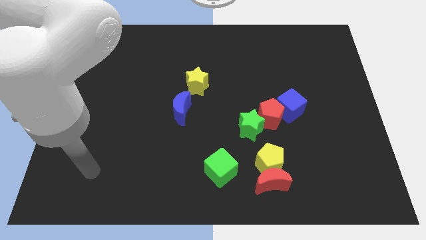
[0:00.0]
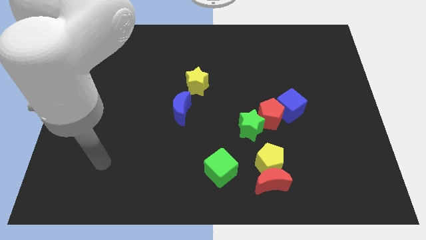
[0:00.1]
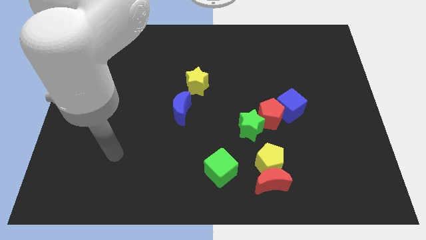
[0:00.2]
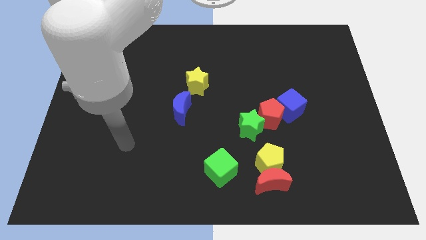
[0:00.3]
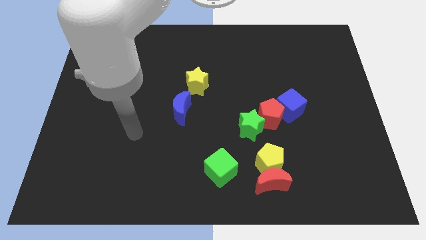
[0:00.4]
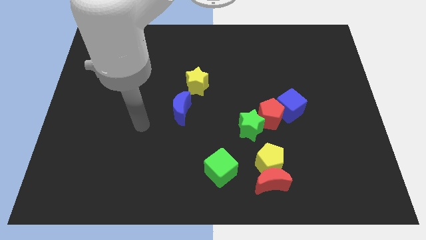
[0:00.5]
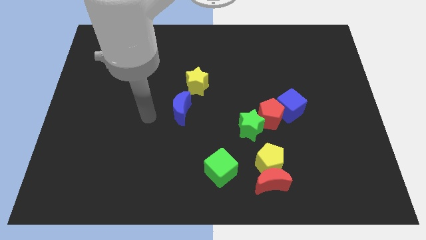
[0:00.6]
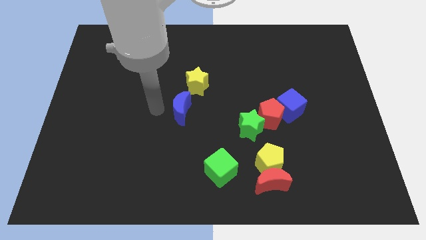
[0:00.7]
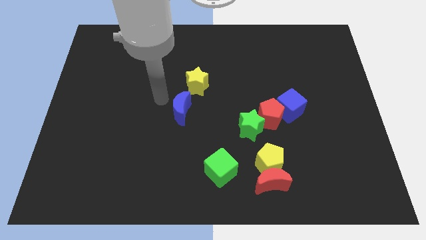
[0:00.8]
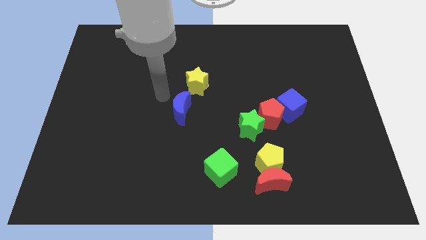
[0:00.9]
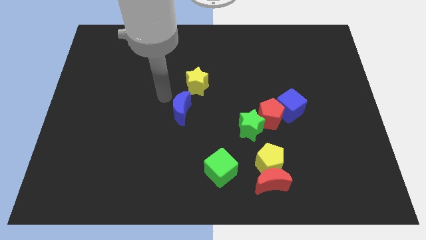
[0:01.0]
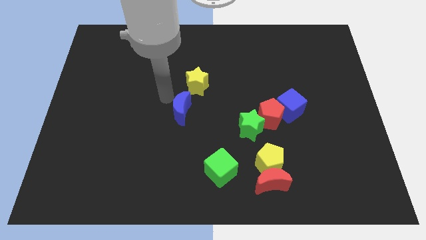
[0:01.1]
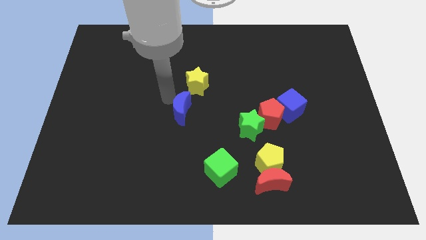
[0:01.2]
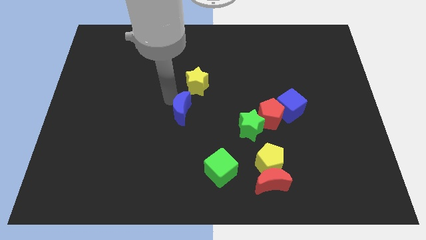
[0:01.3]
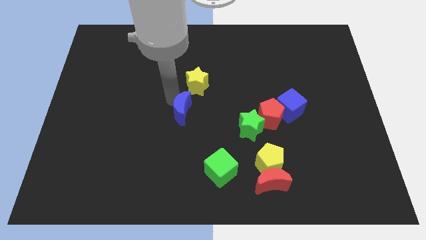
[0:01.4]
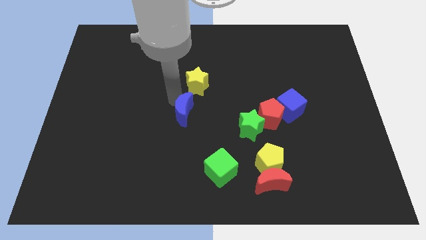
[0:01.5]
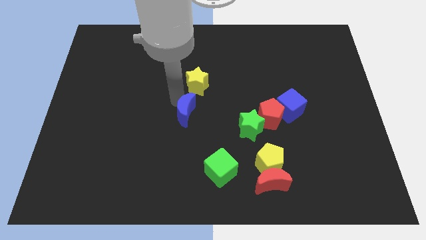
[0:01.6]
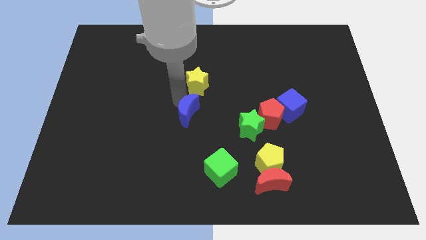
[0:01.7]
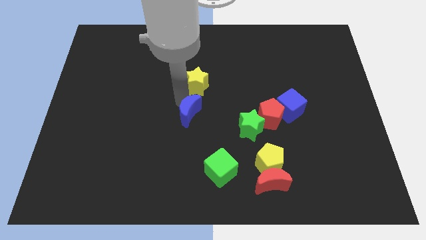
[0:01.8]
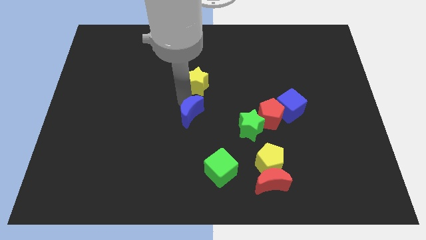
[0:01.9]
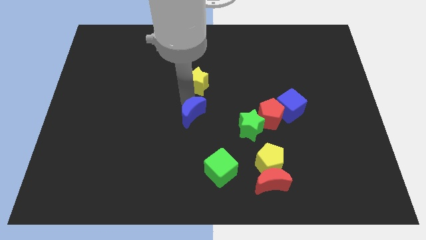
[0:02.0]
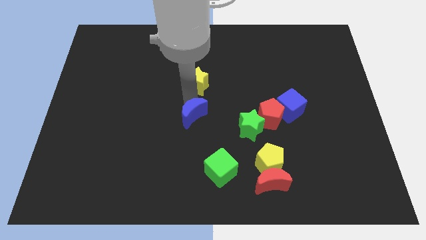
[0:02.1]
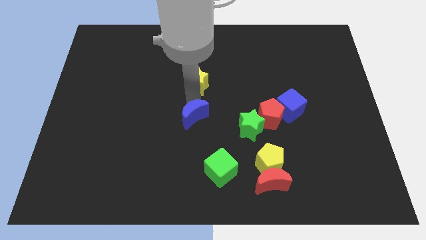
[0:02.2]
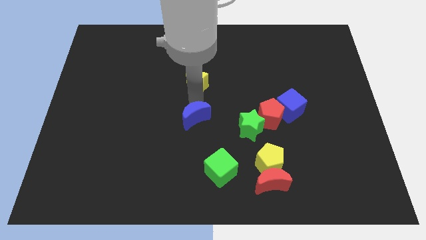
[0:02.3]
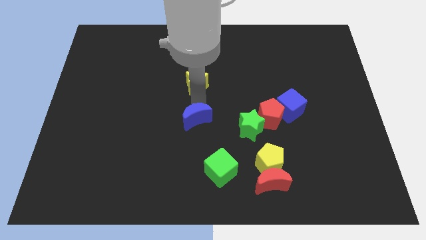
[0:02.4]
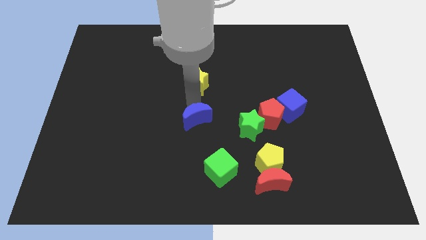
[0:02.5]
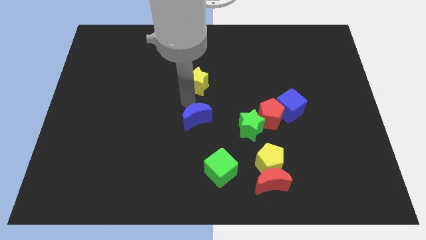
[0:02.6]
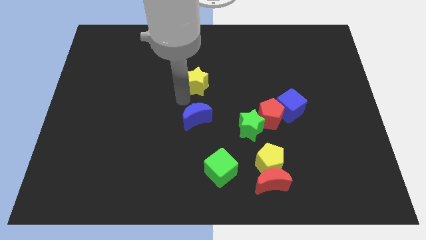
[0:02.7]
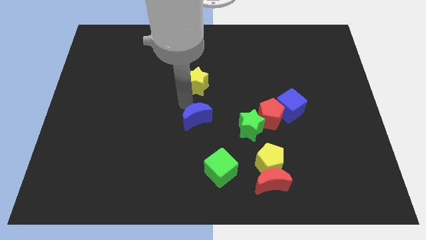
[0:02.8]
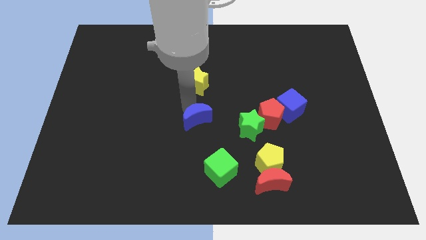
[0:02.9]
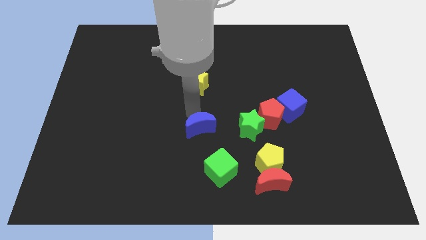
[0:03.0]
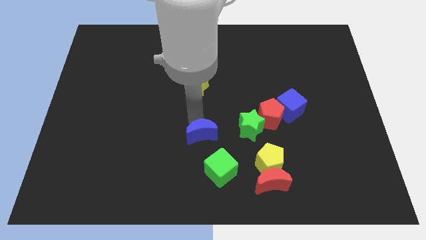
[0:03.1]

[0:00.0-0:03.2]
push the blue moon a little diagonally downwards and right

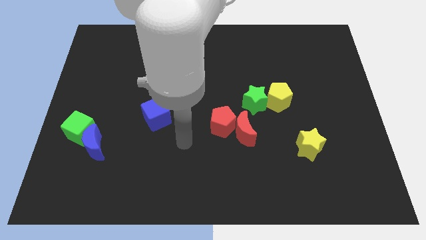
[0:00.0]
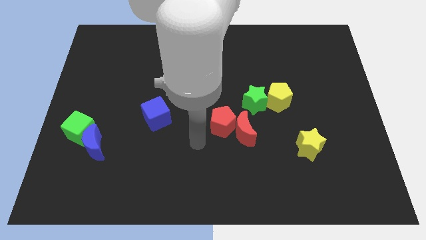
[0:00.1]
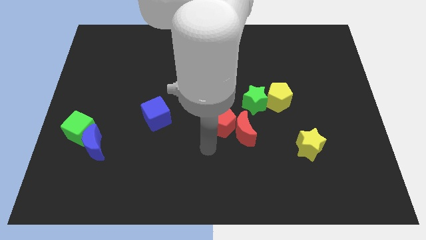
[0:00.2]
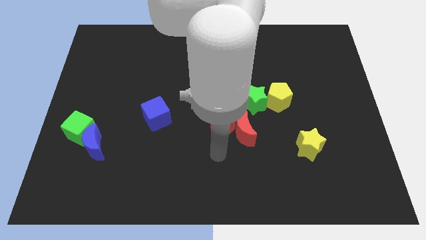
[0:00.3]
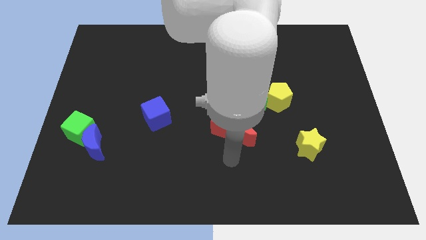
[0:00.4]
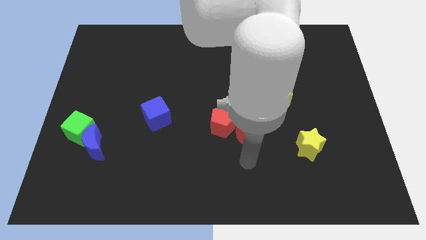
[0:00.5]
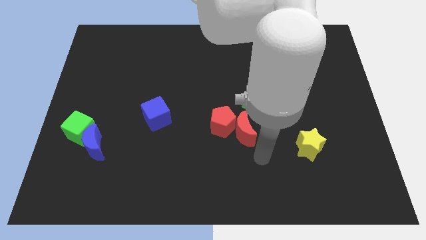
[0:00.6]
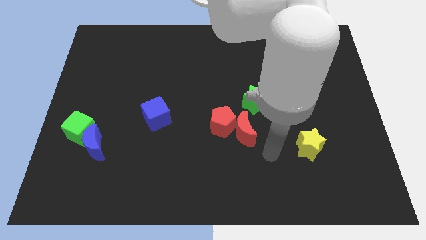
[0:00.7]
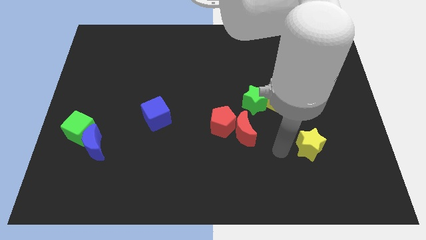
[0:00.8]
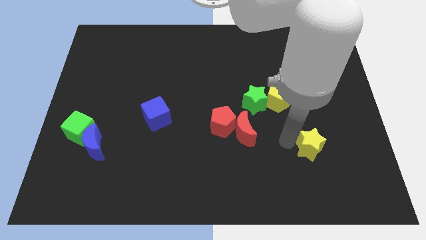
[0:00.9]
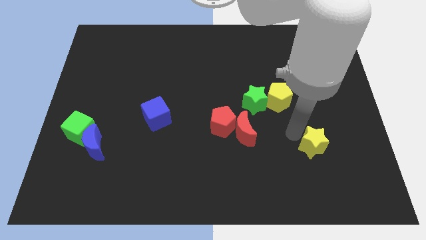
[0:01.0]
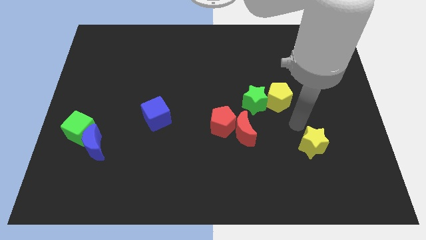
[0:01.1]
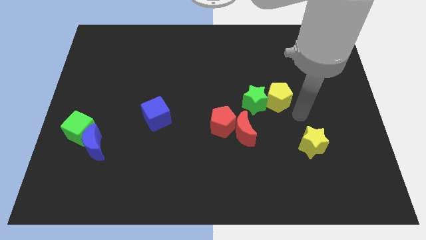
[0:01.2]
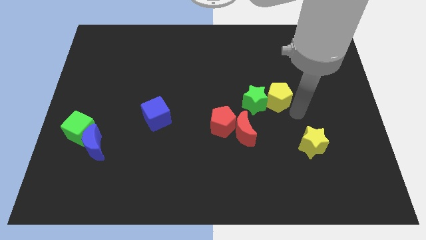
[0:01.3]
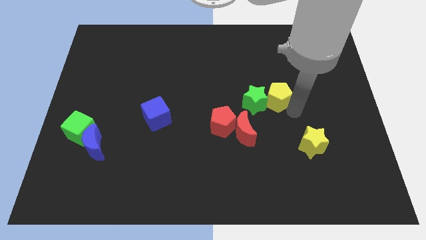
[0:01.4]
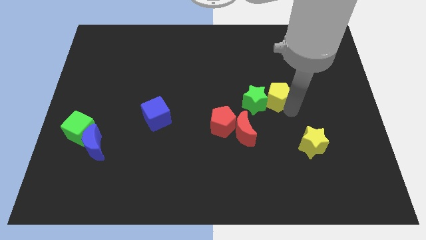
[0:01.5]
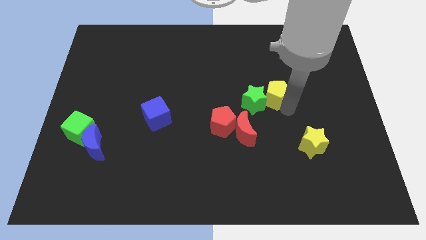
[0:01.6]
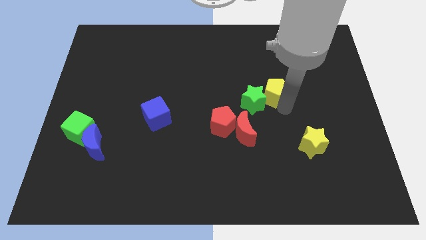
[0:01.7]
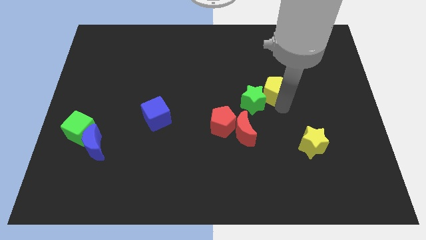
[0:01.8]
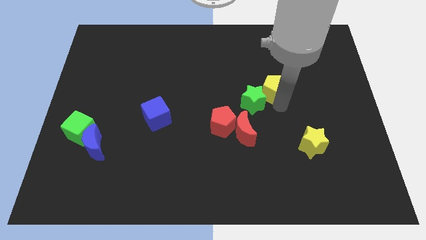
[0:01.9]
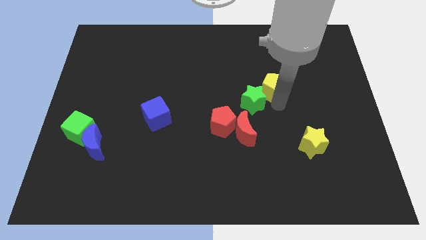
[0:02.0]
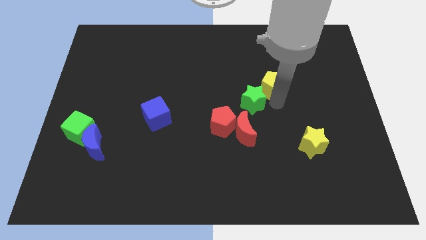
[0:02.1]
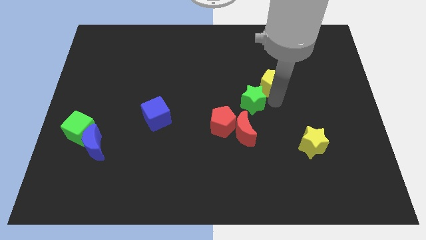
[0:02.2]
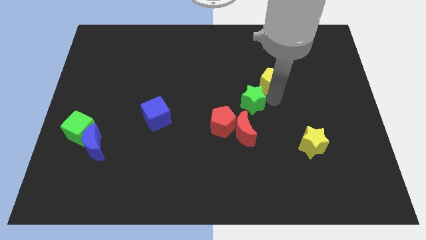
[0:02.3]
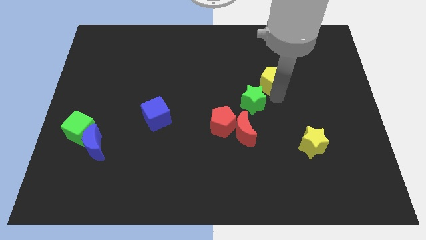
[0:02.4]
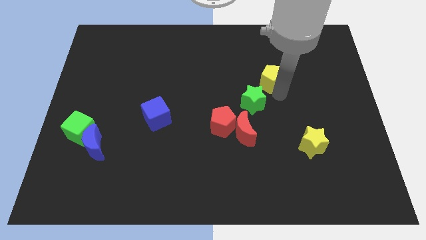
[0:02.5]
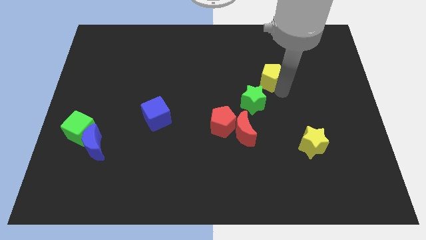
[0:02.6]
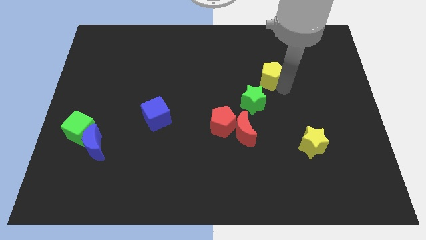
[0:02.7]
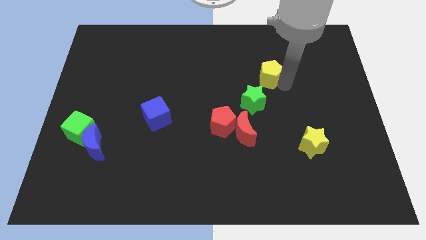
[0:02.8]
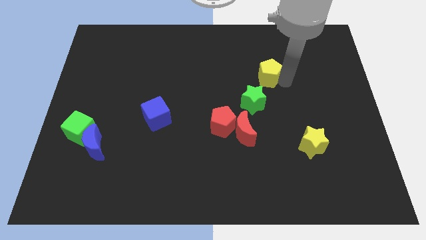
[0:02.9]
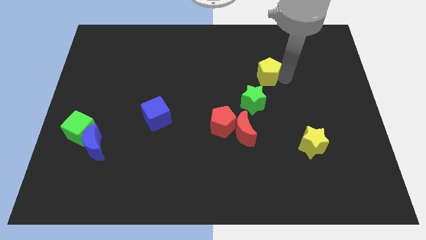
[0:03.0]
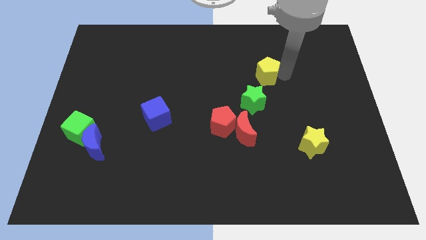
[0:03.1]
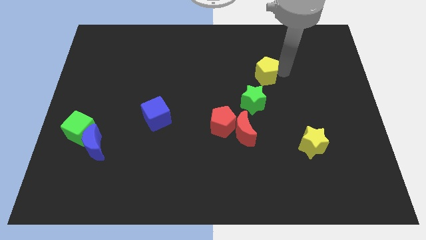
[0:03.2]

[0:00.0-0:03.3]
move the yellow pentagon slightly up and then left

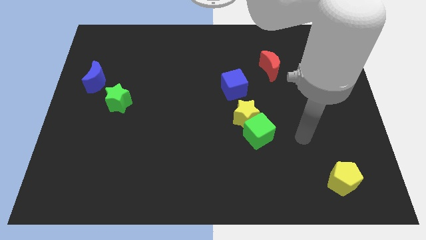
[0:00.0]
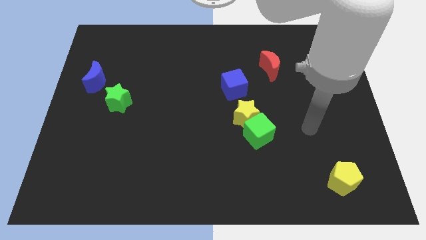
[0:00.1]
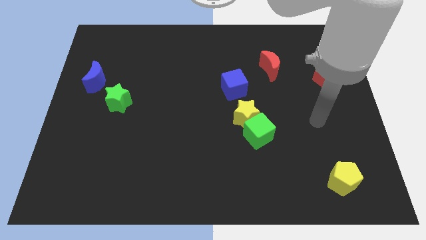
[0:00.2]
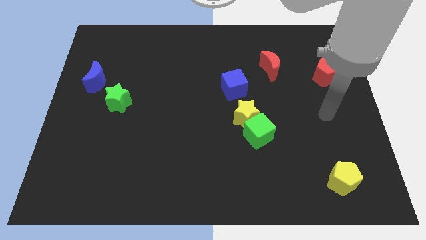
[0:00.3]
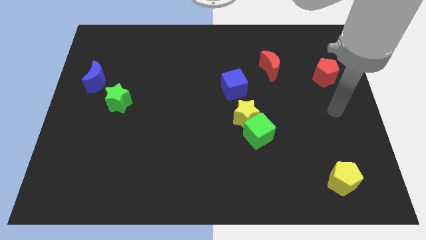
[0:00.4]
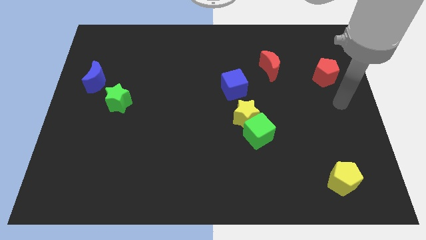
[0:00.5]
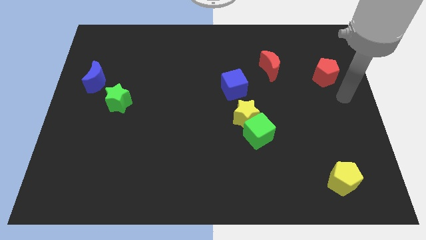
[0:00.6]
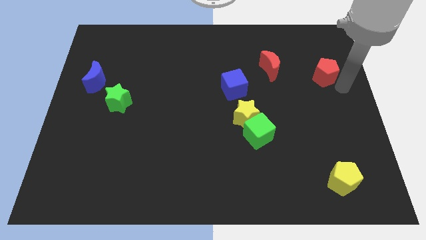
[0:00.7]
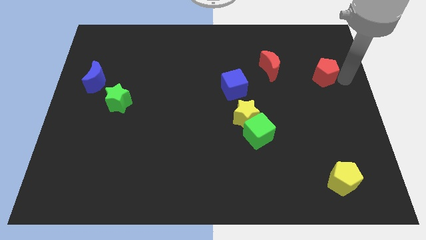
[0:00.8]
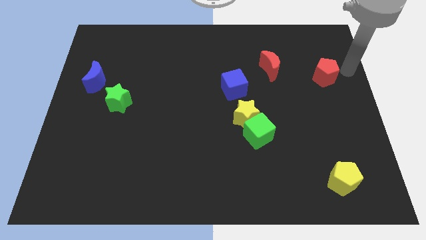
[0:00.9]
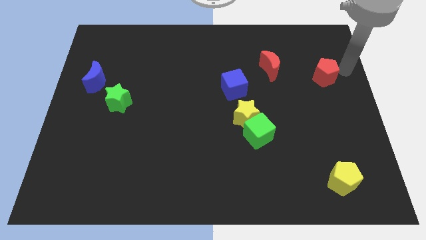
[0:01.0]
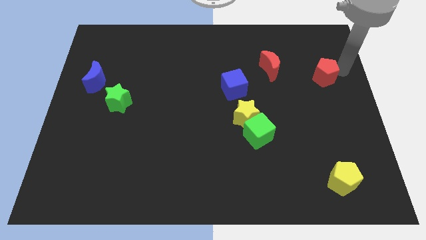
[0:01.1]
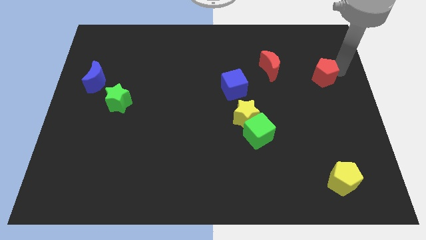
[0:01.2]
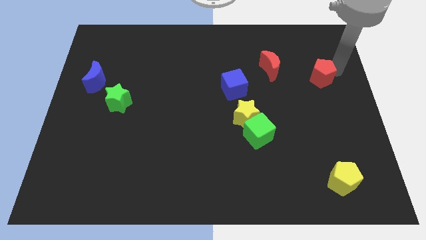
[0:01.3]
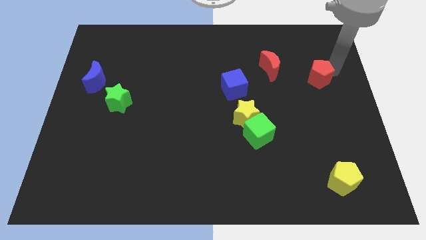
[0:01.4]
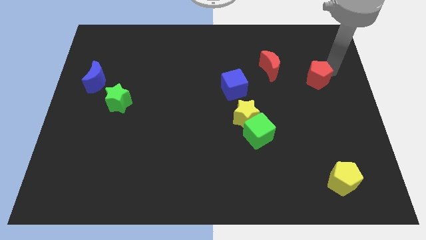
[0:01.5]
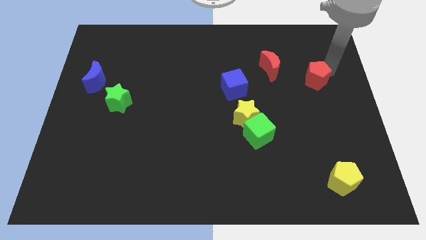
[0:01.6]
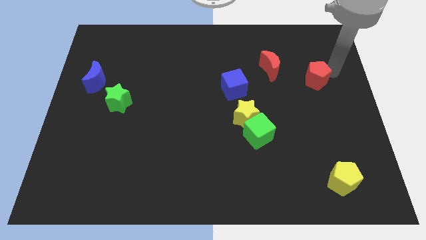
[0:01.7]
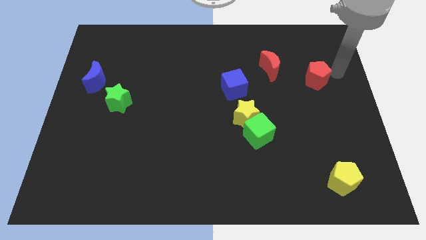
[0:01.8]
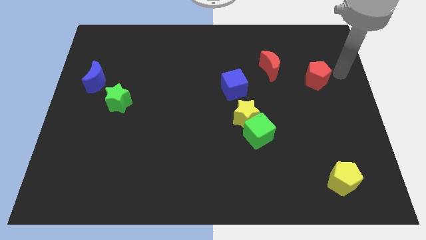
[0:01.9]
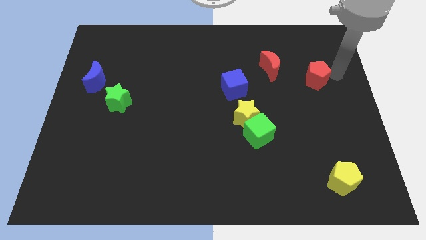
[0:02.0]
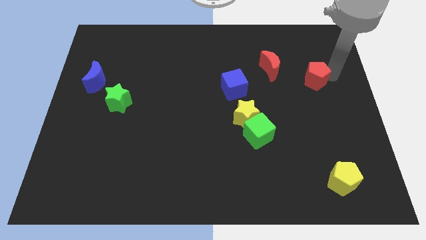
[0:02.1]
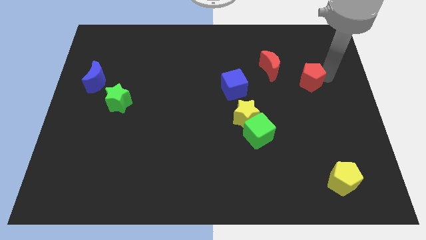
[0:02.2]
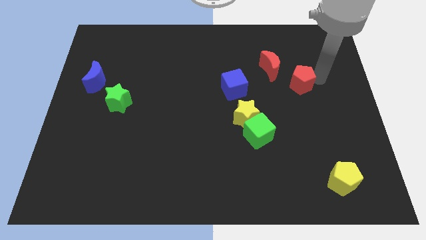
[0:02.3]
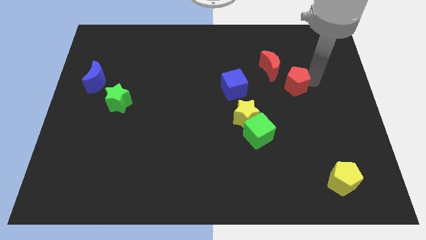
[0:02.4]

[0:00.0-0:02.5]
slightly push the red pentagon to the left
